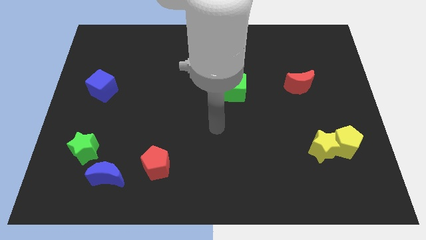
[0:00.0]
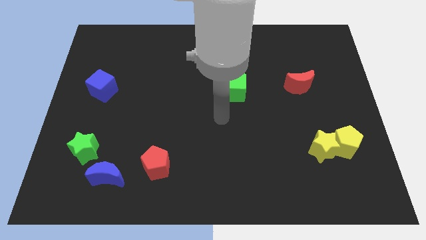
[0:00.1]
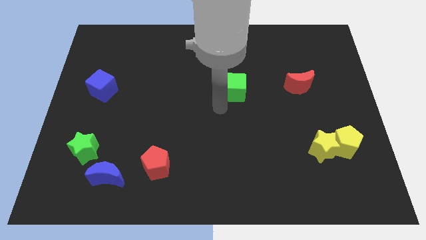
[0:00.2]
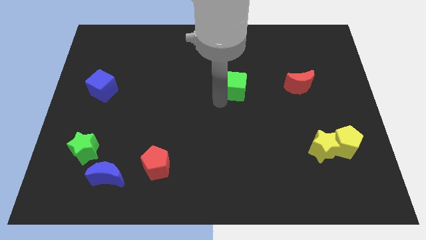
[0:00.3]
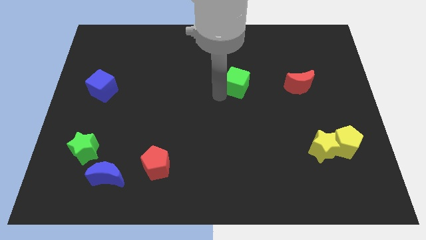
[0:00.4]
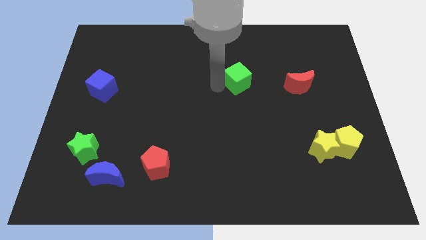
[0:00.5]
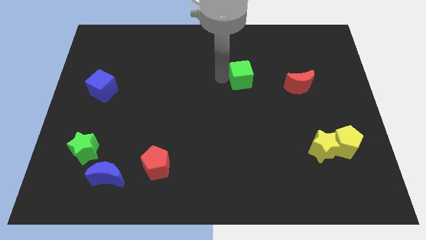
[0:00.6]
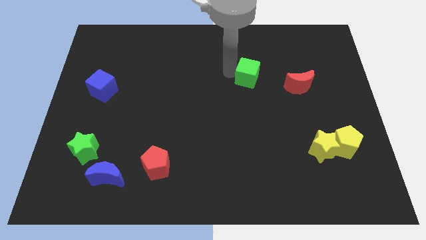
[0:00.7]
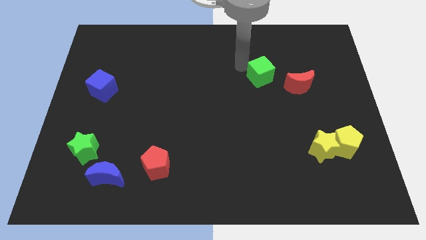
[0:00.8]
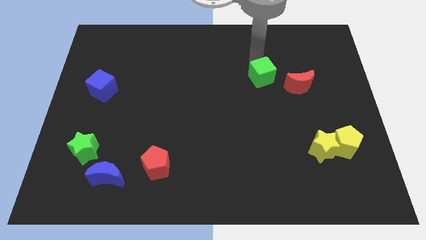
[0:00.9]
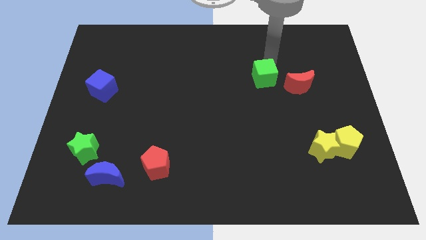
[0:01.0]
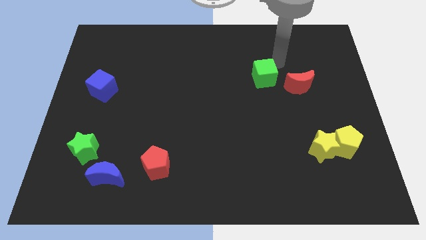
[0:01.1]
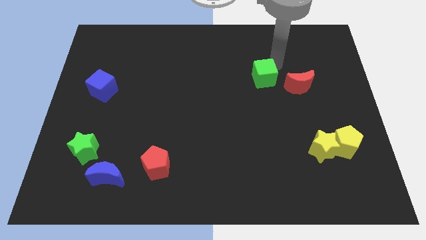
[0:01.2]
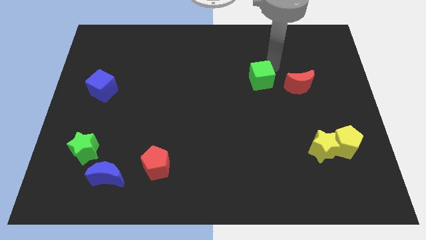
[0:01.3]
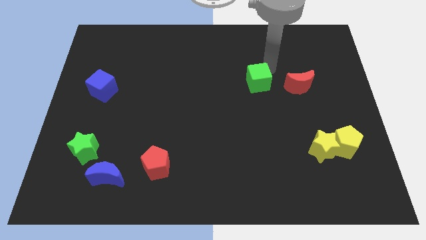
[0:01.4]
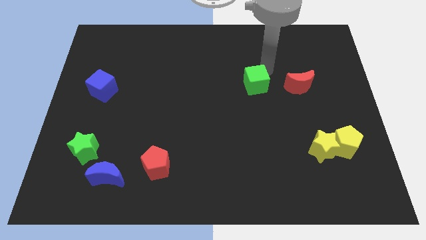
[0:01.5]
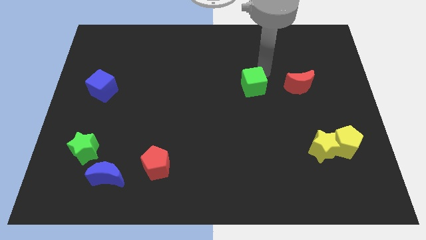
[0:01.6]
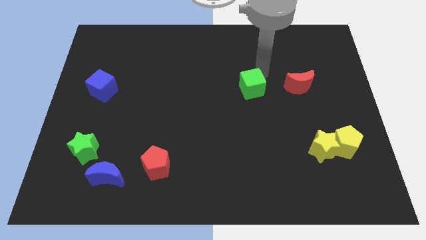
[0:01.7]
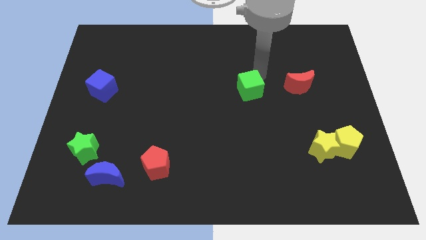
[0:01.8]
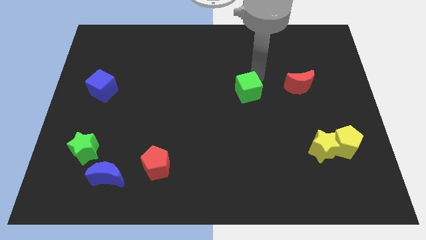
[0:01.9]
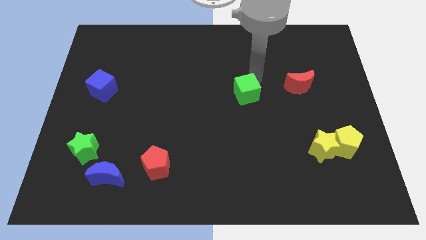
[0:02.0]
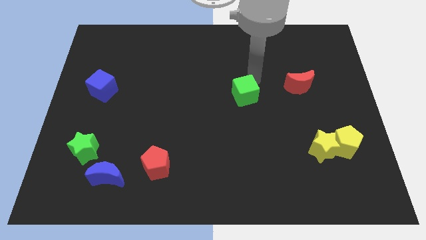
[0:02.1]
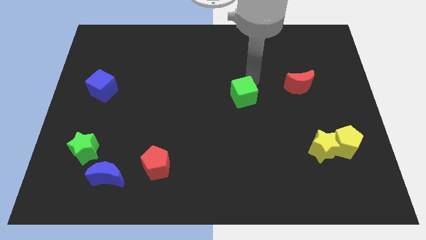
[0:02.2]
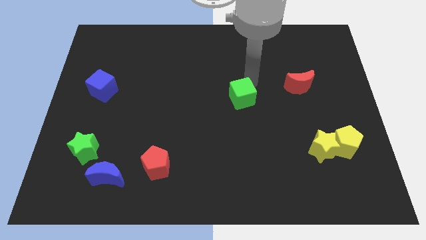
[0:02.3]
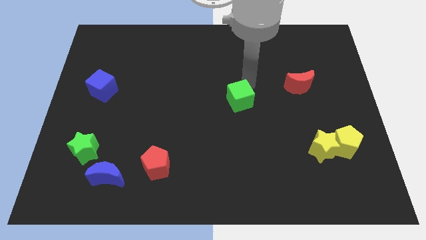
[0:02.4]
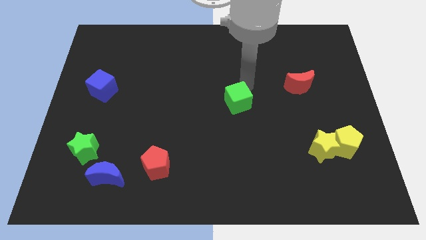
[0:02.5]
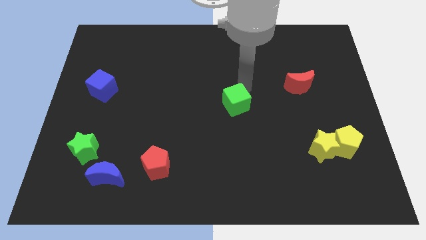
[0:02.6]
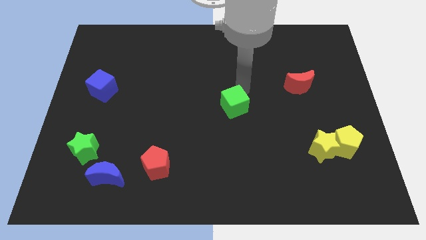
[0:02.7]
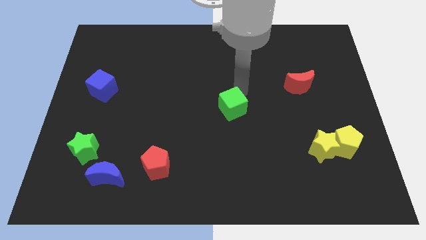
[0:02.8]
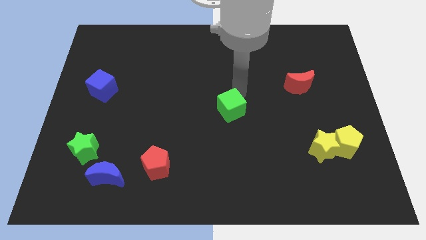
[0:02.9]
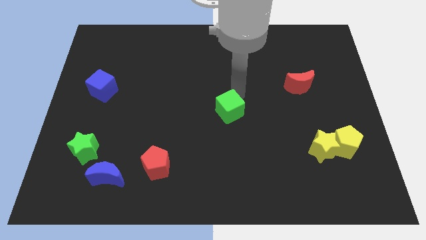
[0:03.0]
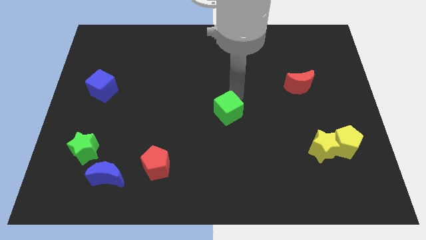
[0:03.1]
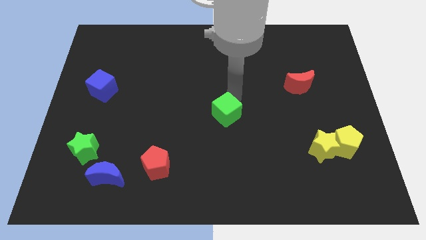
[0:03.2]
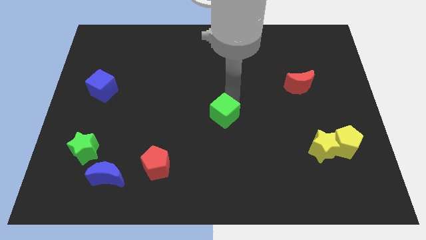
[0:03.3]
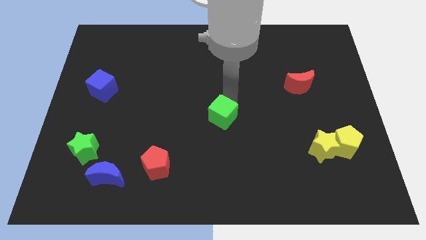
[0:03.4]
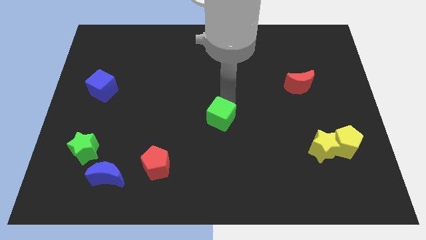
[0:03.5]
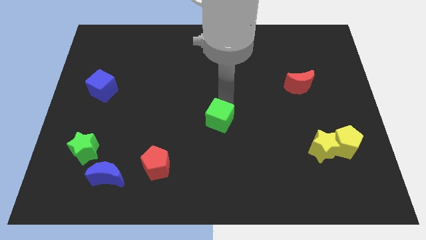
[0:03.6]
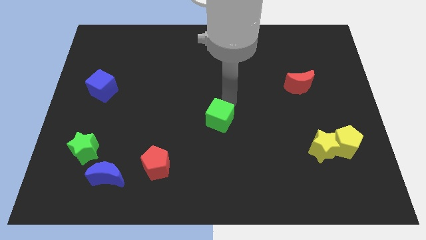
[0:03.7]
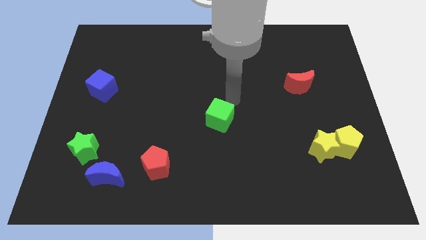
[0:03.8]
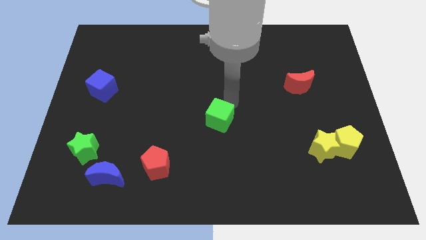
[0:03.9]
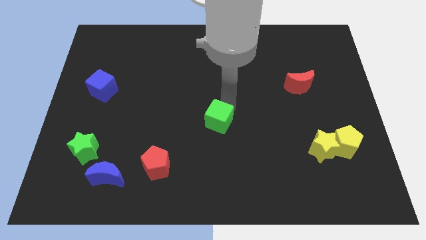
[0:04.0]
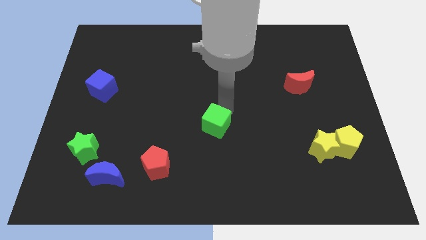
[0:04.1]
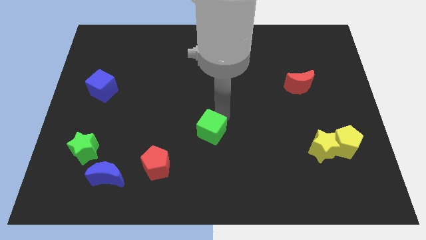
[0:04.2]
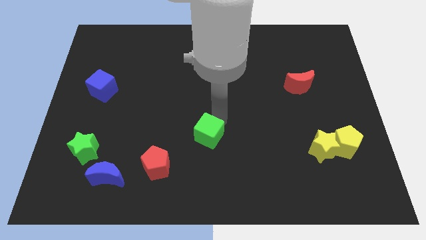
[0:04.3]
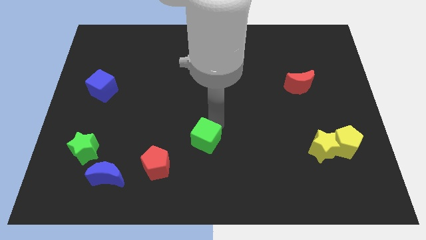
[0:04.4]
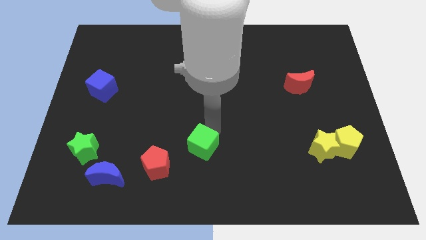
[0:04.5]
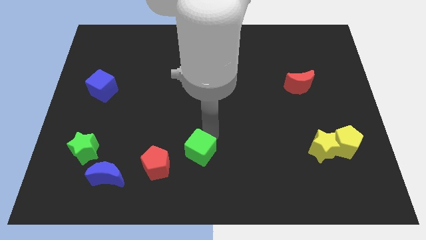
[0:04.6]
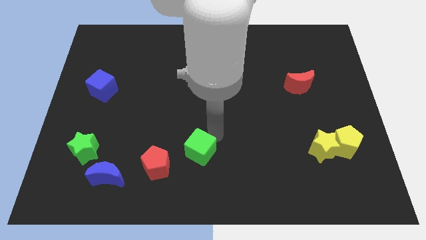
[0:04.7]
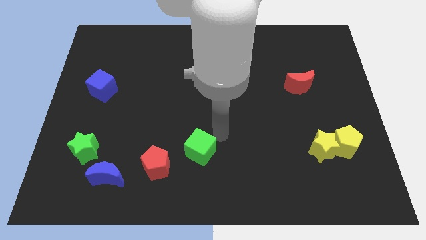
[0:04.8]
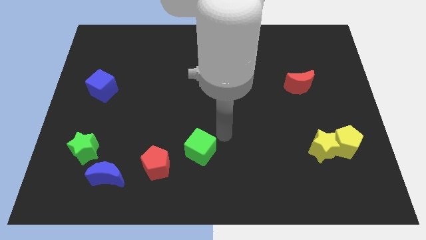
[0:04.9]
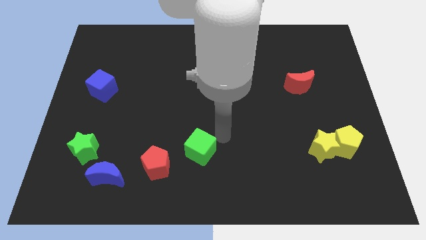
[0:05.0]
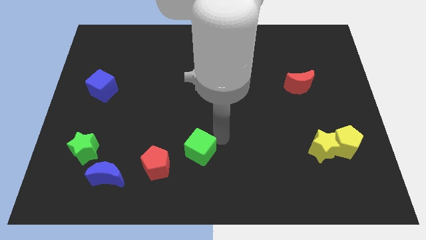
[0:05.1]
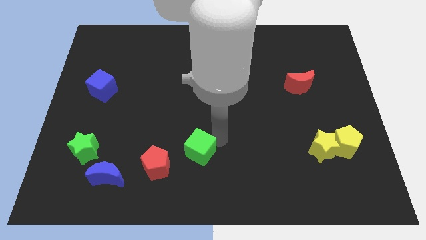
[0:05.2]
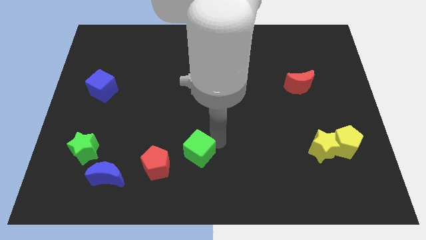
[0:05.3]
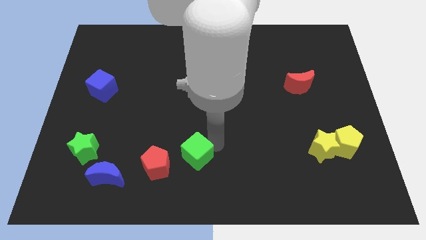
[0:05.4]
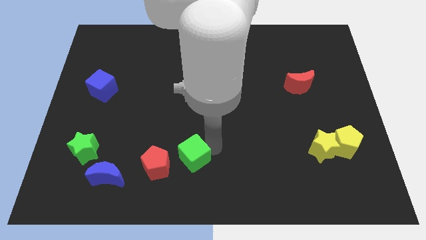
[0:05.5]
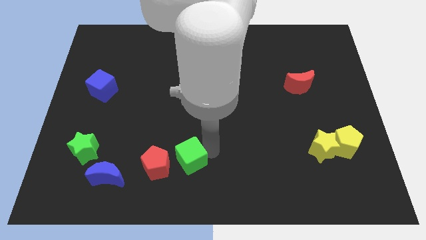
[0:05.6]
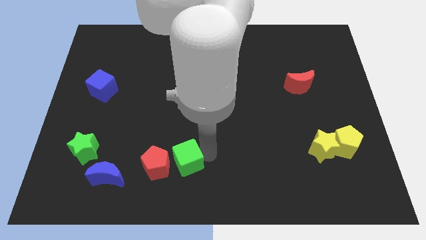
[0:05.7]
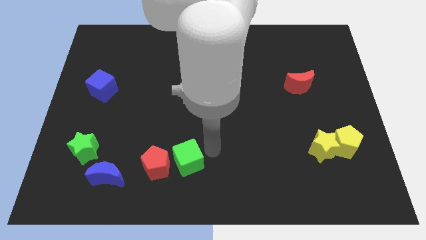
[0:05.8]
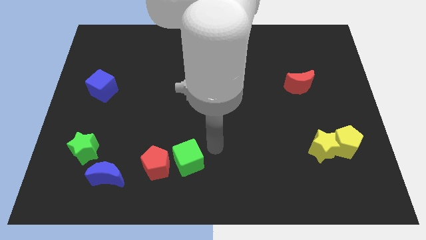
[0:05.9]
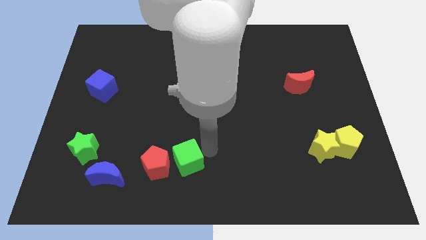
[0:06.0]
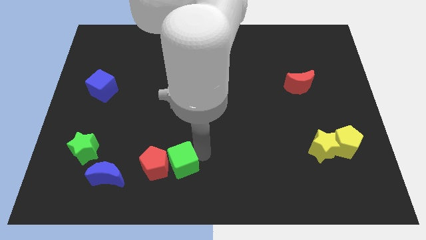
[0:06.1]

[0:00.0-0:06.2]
slide the green cube right of the blue moon

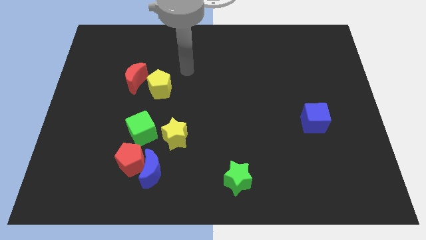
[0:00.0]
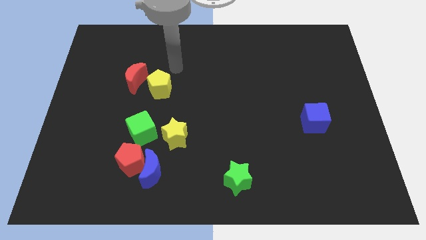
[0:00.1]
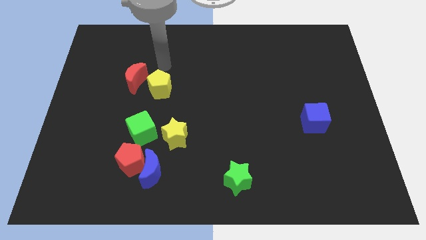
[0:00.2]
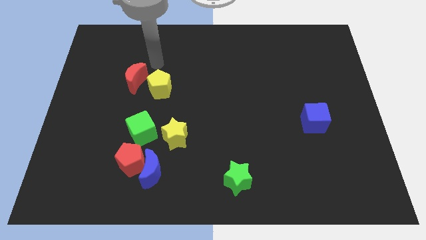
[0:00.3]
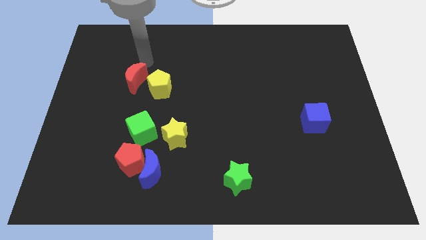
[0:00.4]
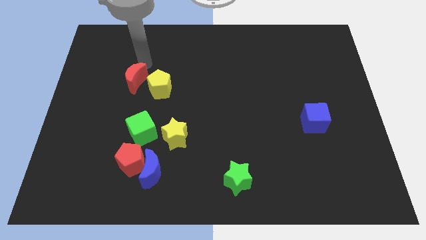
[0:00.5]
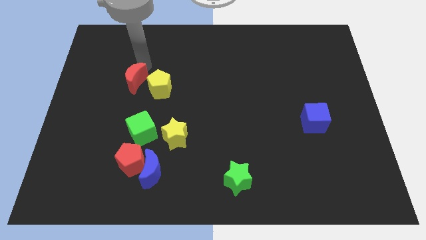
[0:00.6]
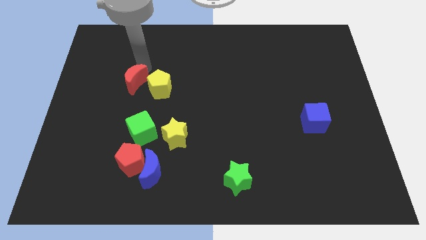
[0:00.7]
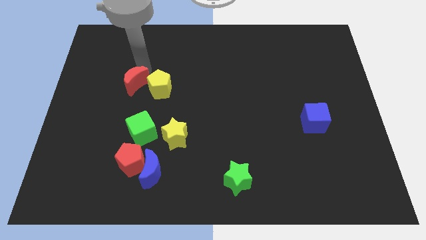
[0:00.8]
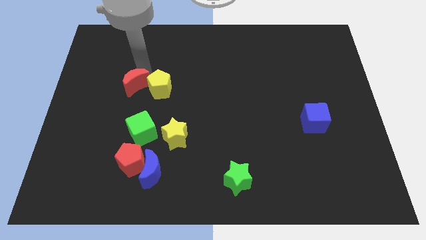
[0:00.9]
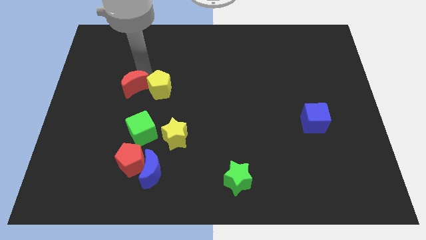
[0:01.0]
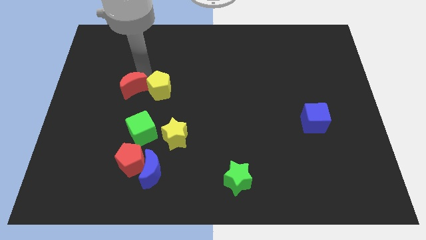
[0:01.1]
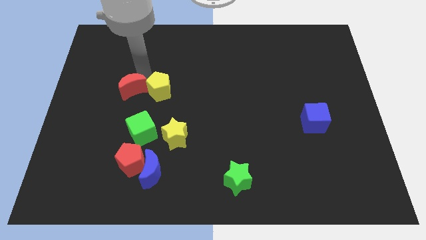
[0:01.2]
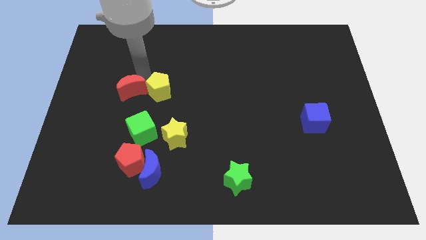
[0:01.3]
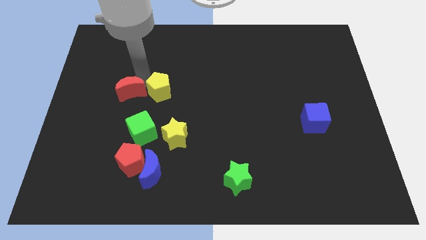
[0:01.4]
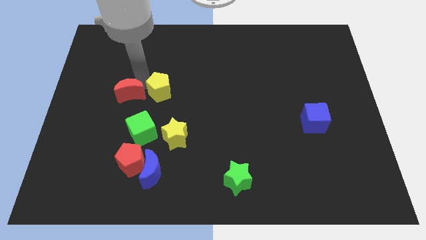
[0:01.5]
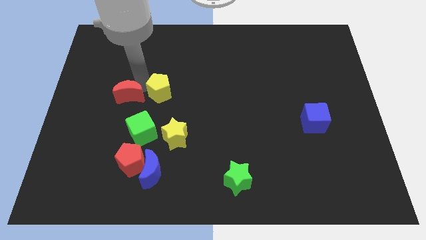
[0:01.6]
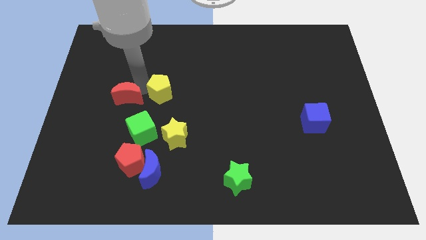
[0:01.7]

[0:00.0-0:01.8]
slide the red moon to the top left side of the green cube
